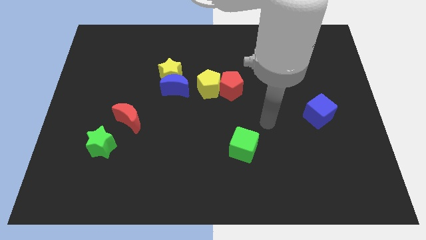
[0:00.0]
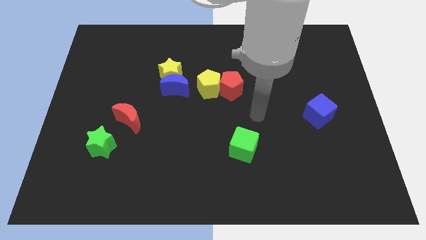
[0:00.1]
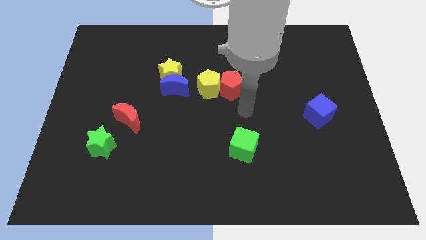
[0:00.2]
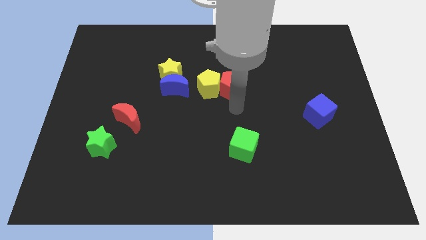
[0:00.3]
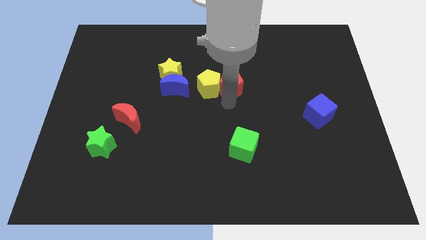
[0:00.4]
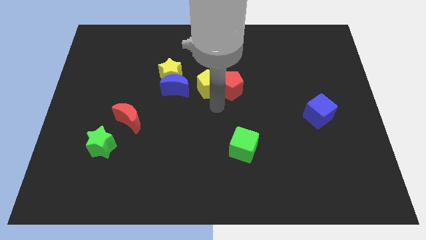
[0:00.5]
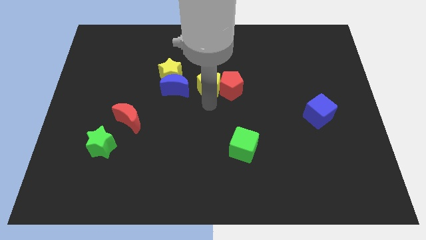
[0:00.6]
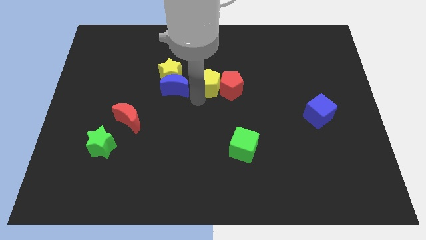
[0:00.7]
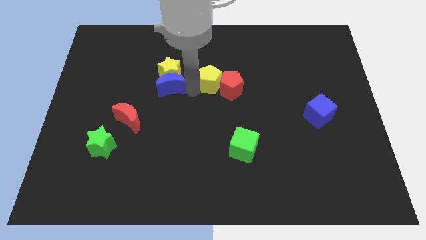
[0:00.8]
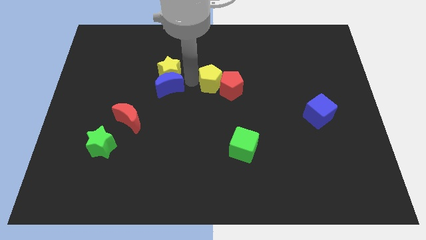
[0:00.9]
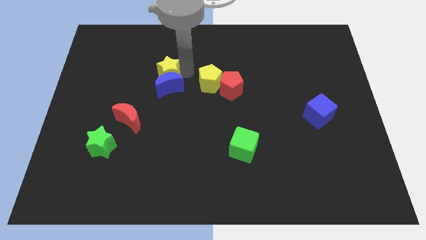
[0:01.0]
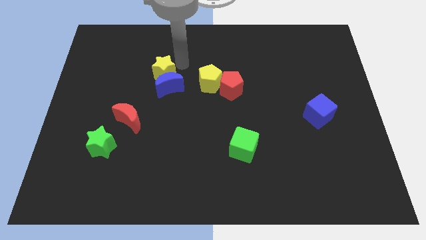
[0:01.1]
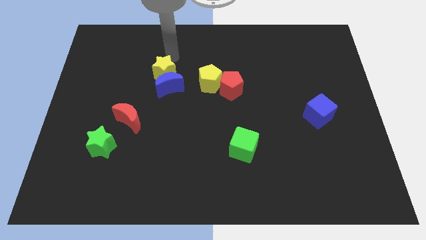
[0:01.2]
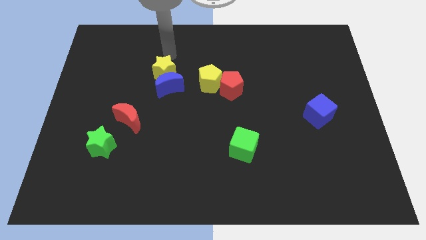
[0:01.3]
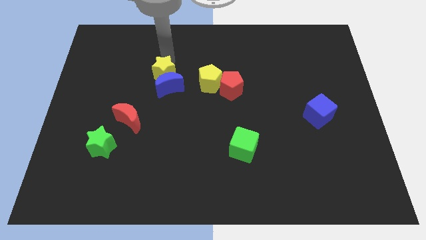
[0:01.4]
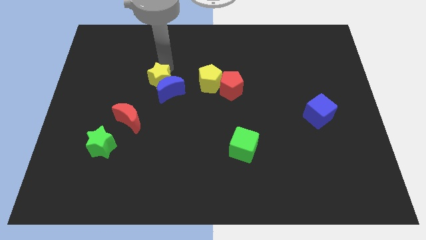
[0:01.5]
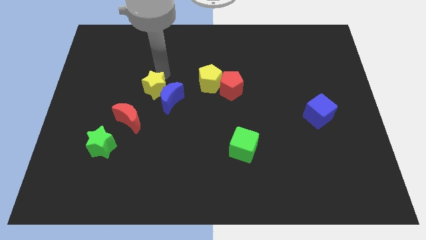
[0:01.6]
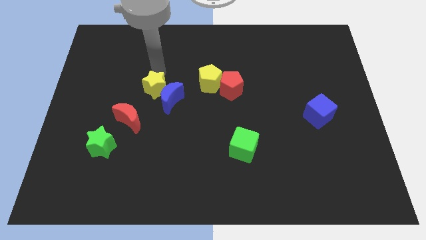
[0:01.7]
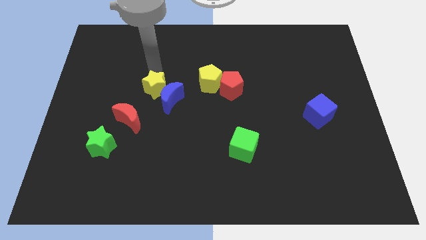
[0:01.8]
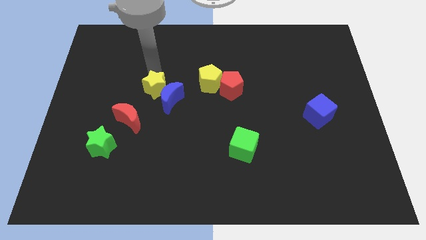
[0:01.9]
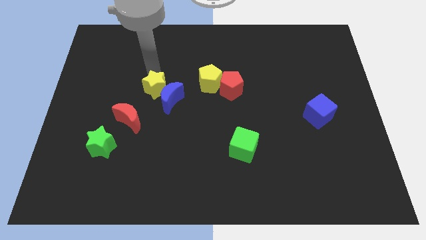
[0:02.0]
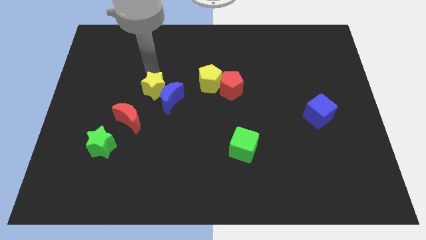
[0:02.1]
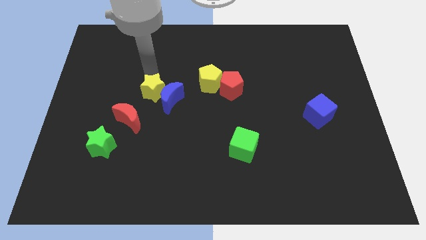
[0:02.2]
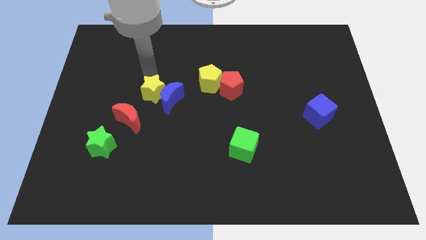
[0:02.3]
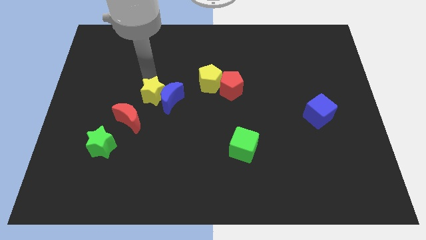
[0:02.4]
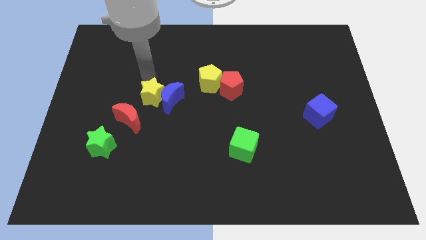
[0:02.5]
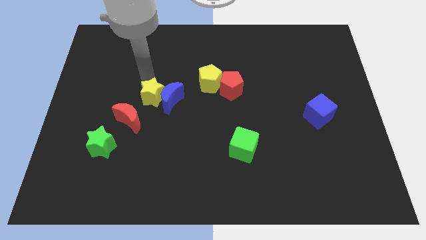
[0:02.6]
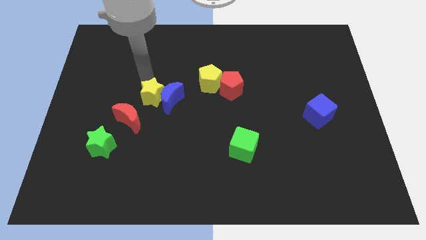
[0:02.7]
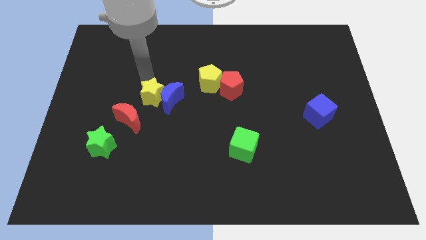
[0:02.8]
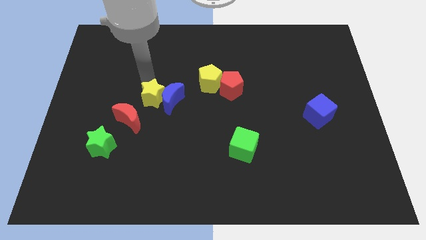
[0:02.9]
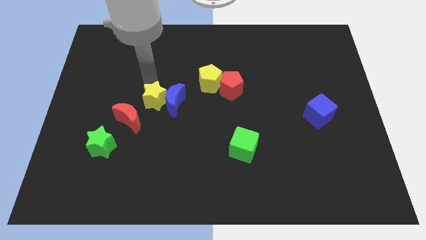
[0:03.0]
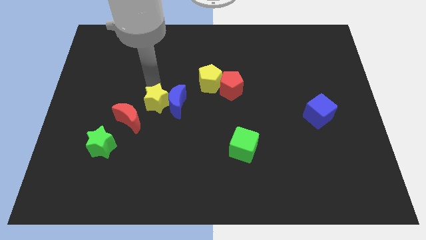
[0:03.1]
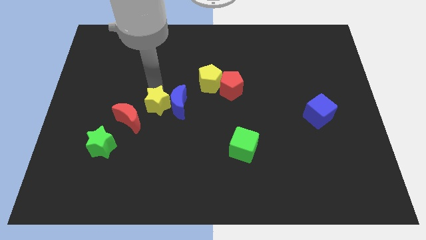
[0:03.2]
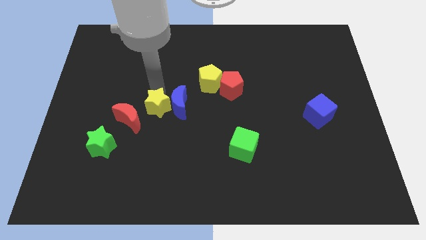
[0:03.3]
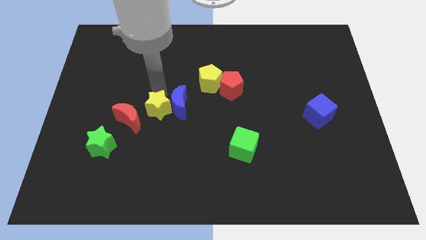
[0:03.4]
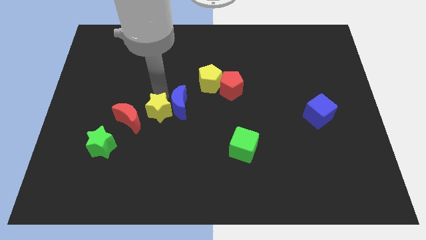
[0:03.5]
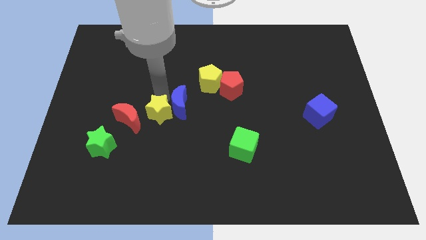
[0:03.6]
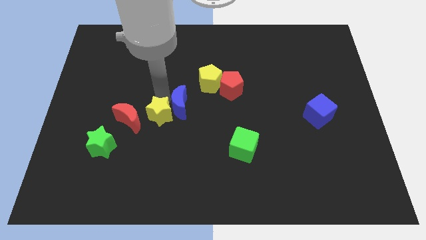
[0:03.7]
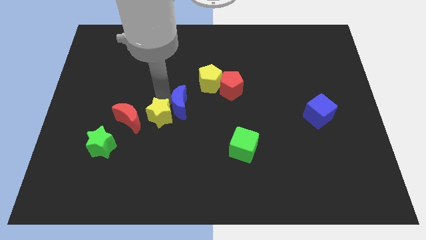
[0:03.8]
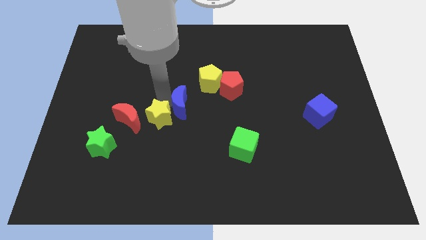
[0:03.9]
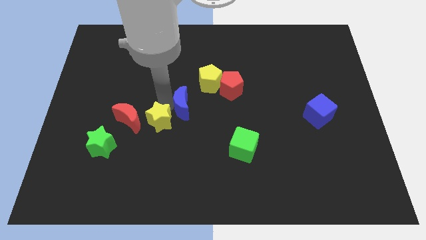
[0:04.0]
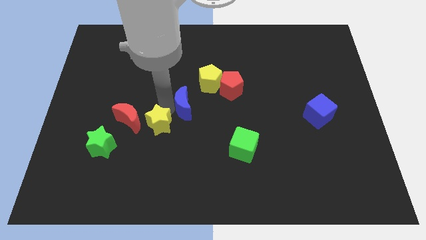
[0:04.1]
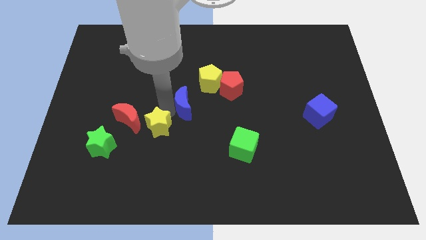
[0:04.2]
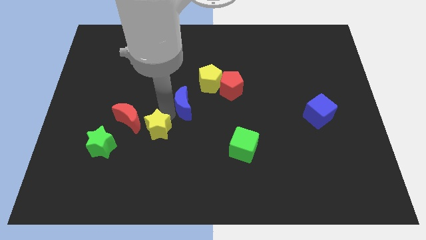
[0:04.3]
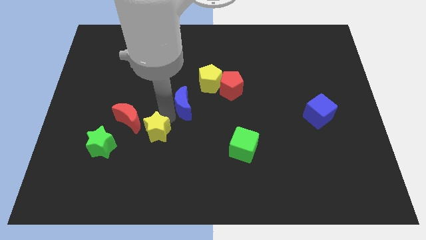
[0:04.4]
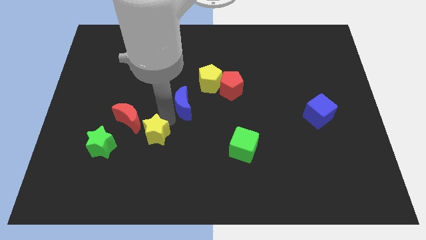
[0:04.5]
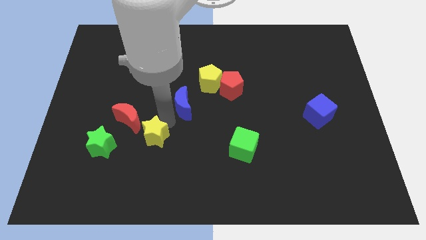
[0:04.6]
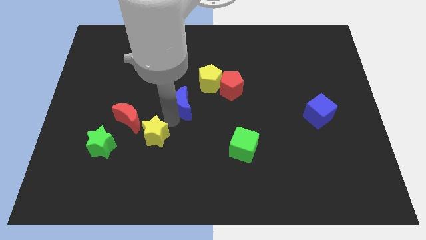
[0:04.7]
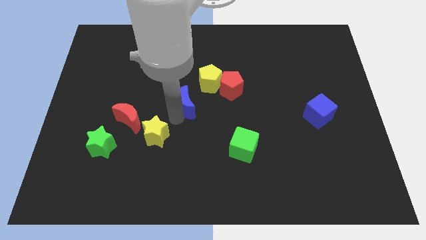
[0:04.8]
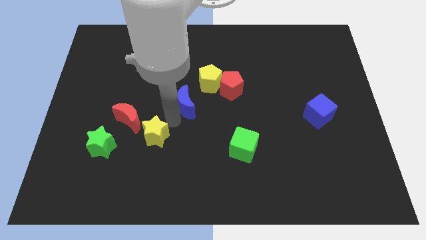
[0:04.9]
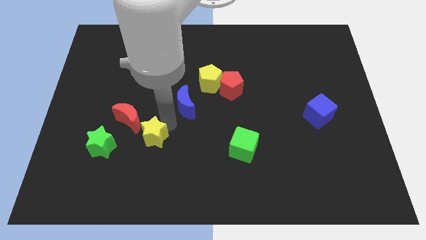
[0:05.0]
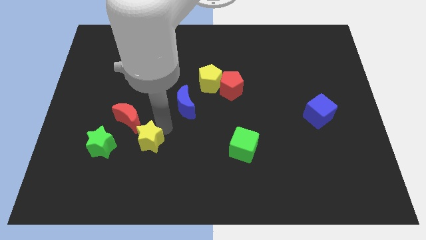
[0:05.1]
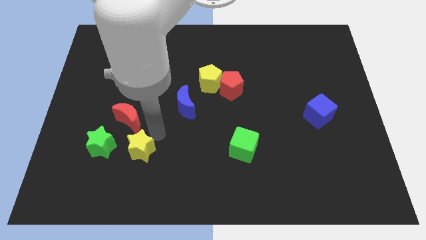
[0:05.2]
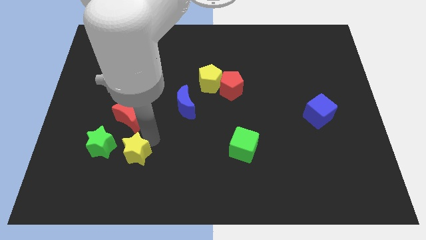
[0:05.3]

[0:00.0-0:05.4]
slide the yellow star to the bottom right side of the green star

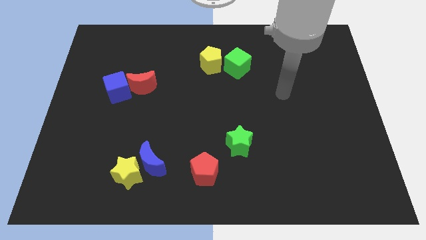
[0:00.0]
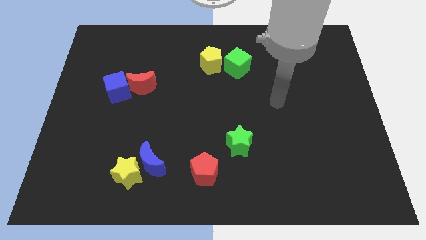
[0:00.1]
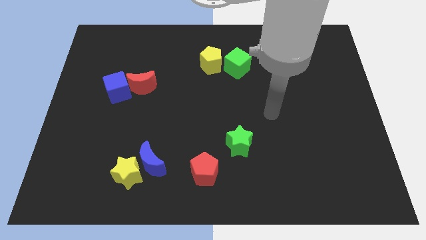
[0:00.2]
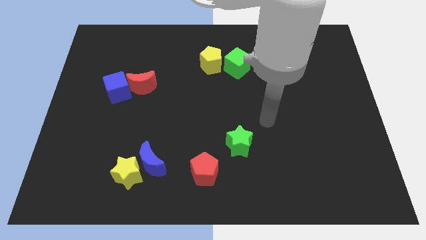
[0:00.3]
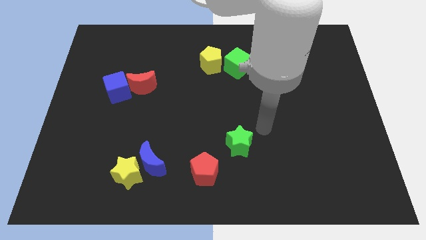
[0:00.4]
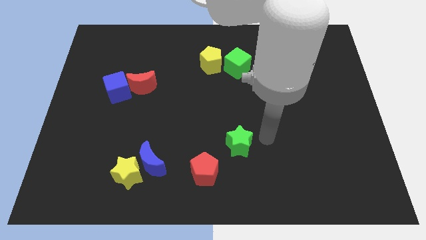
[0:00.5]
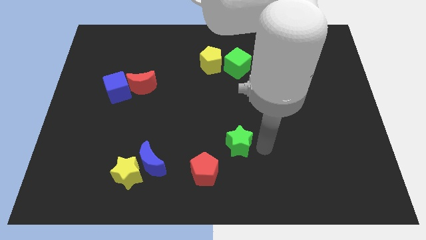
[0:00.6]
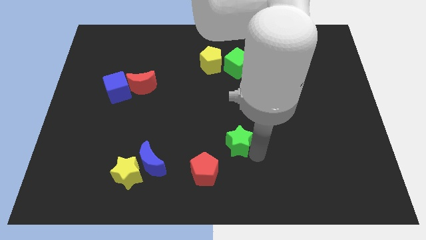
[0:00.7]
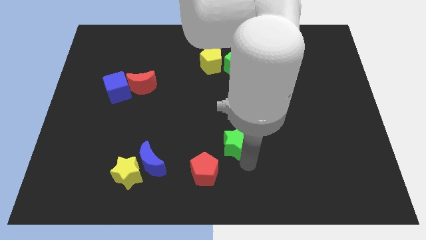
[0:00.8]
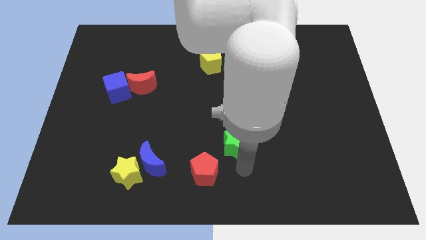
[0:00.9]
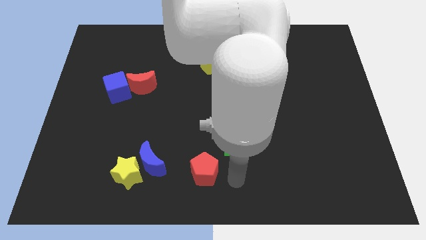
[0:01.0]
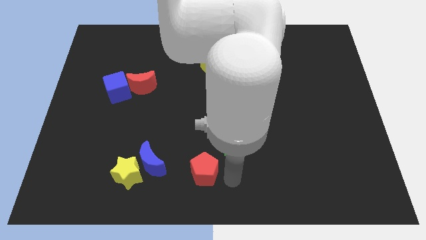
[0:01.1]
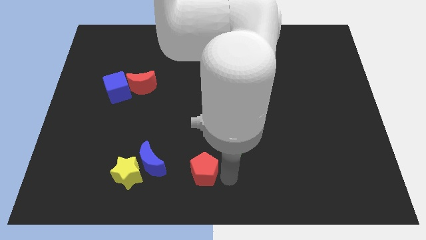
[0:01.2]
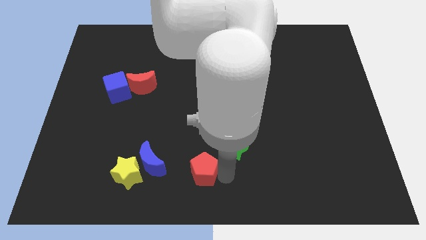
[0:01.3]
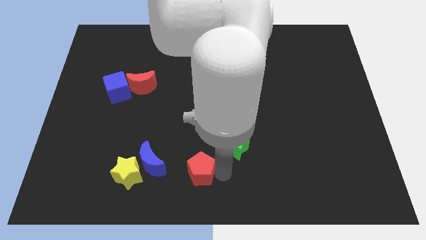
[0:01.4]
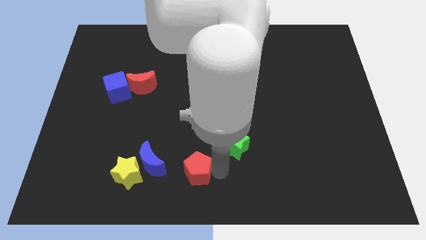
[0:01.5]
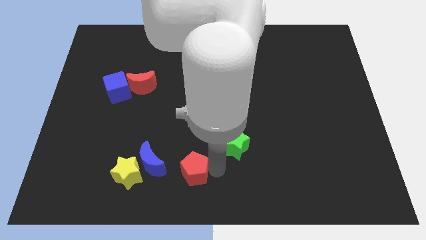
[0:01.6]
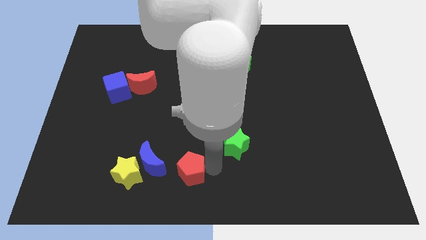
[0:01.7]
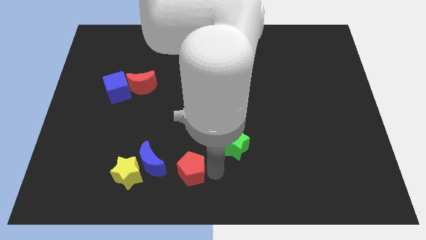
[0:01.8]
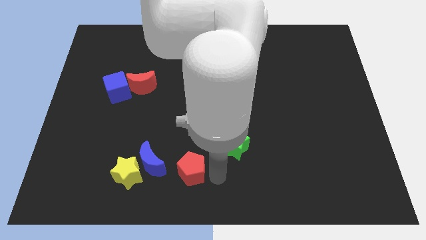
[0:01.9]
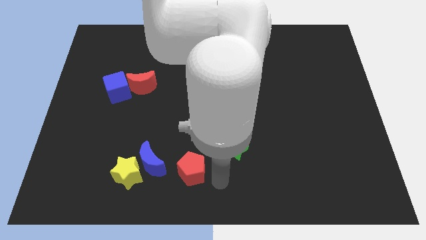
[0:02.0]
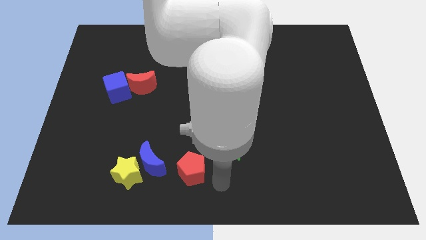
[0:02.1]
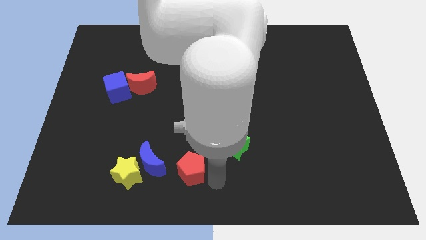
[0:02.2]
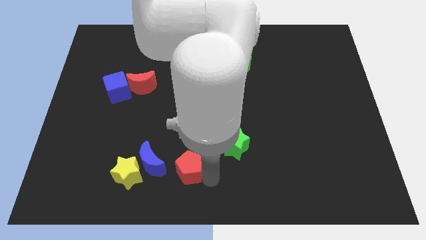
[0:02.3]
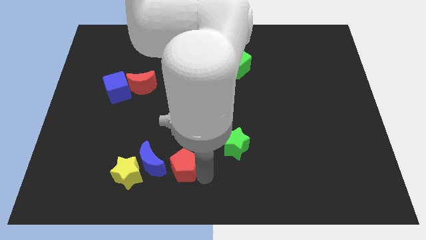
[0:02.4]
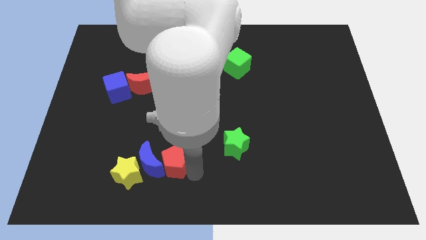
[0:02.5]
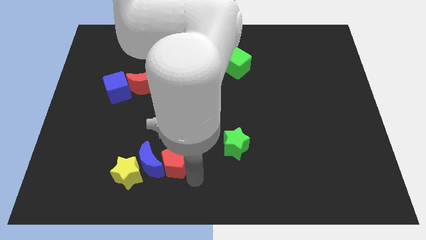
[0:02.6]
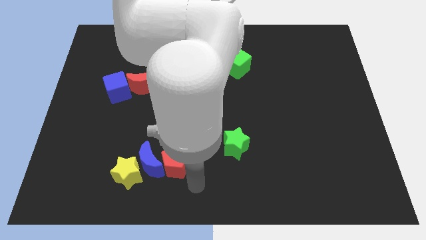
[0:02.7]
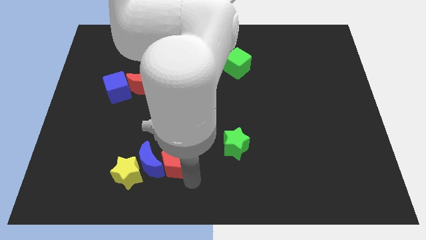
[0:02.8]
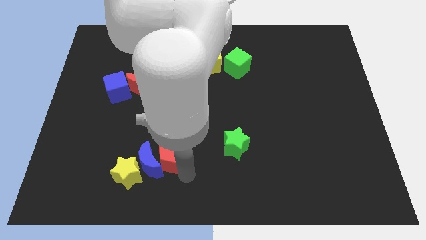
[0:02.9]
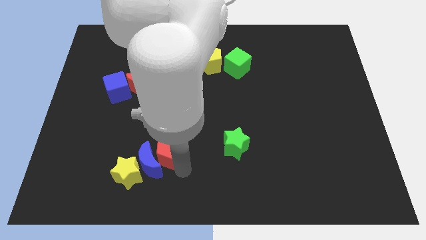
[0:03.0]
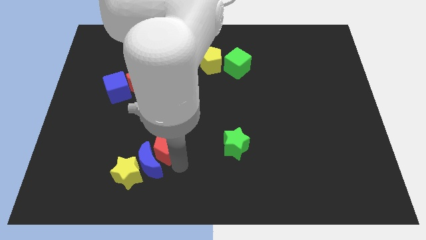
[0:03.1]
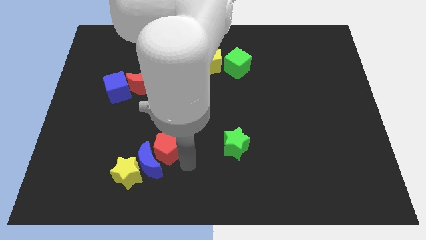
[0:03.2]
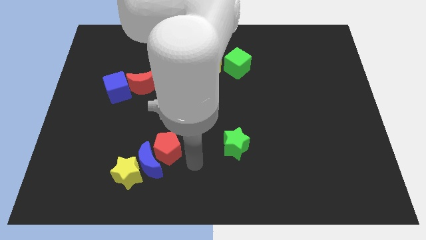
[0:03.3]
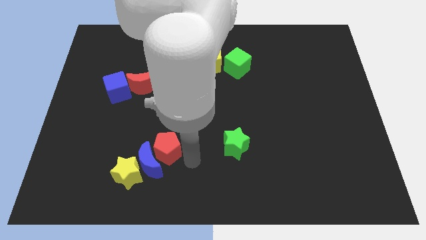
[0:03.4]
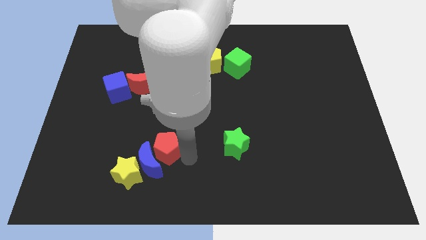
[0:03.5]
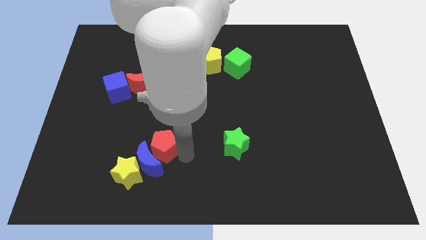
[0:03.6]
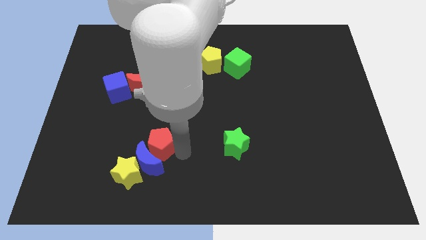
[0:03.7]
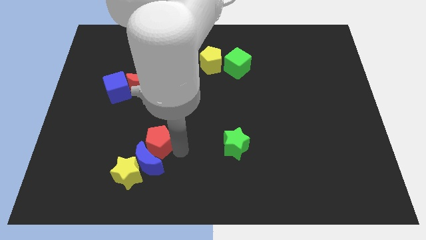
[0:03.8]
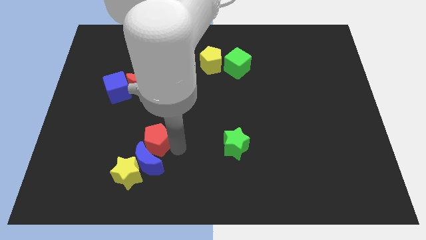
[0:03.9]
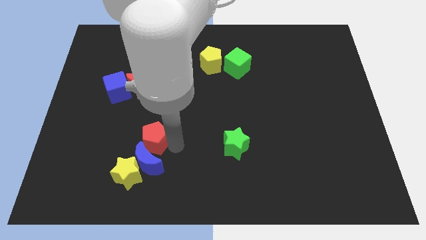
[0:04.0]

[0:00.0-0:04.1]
move the red pentagon above the yellow star
